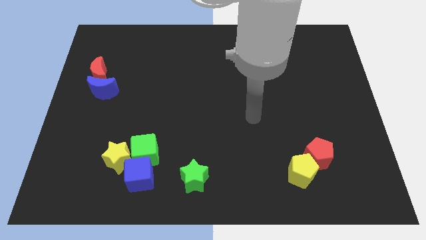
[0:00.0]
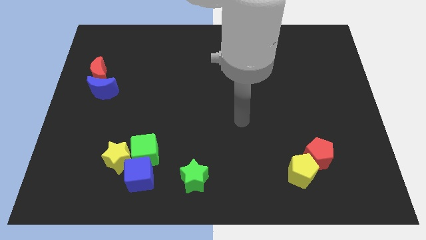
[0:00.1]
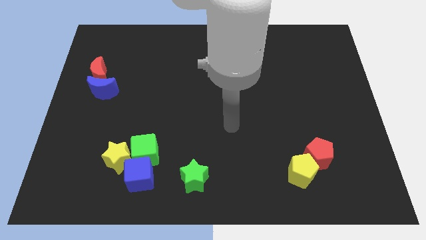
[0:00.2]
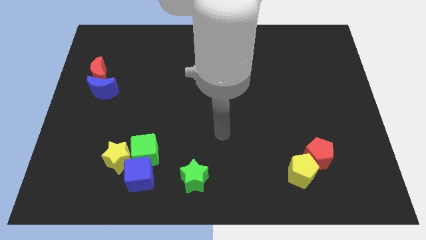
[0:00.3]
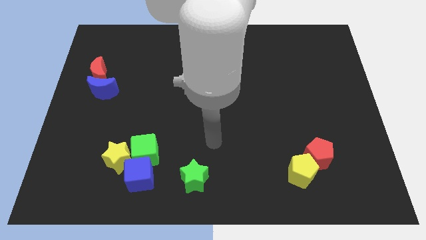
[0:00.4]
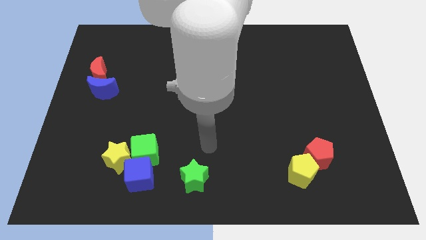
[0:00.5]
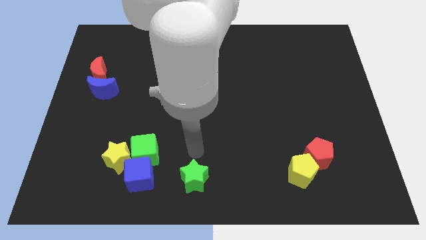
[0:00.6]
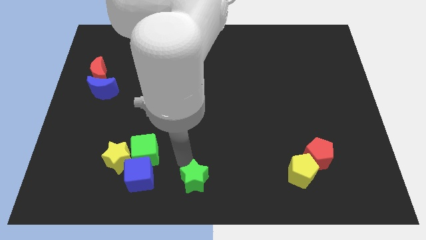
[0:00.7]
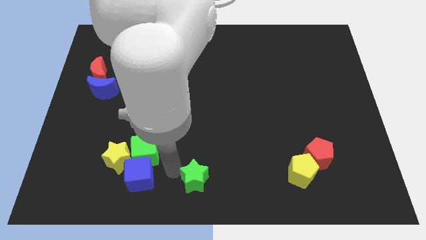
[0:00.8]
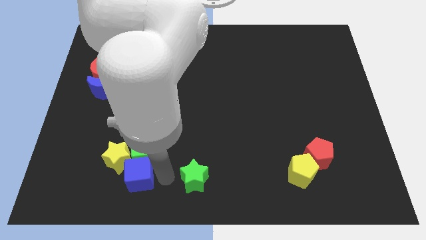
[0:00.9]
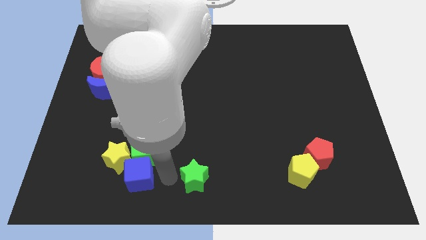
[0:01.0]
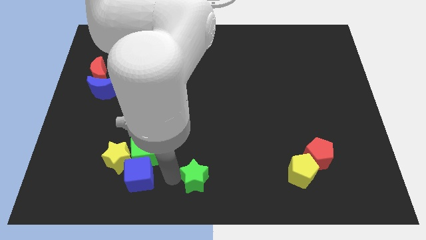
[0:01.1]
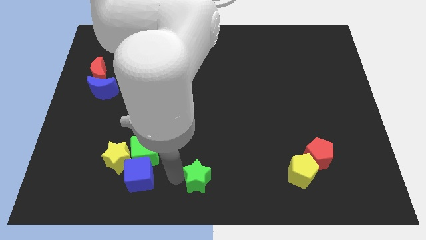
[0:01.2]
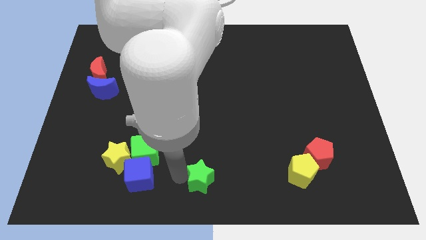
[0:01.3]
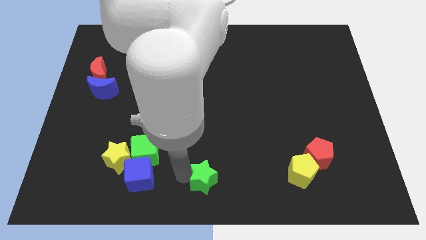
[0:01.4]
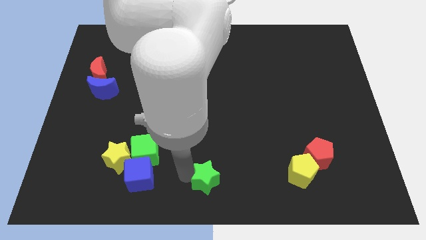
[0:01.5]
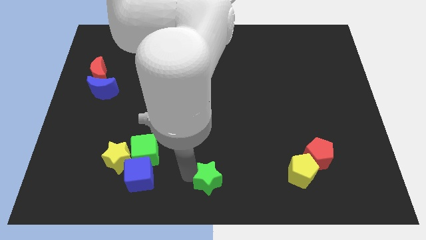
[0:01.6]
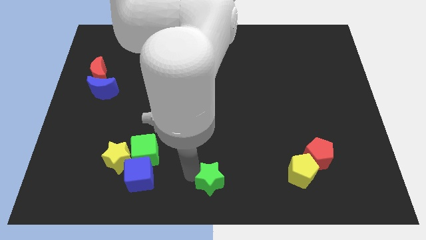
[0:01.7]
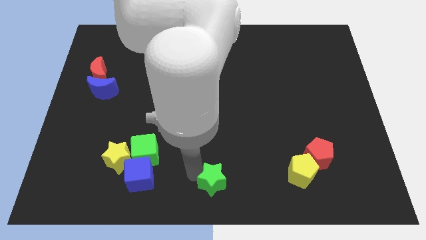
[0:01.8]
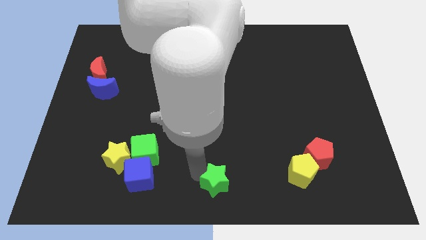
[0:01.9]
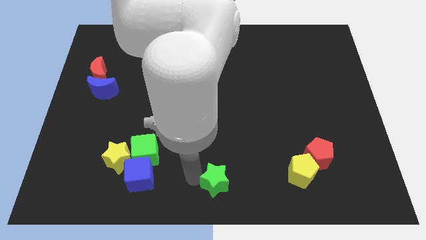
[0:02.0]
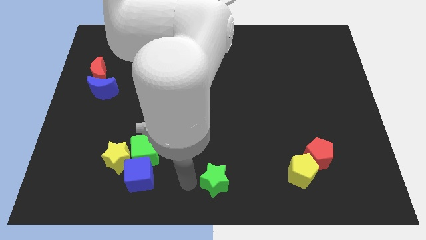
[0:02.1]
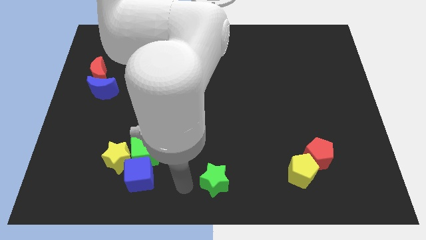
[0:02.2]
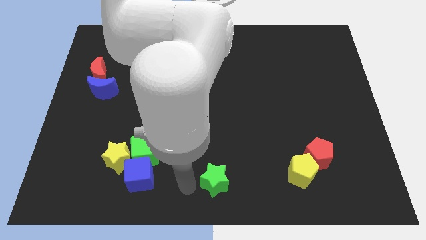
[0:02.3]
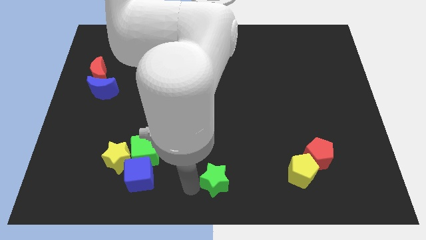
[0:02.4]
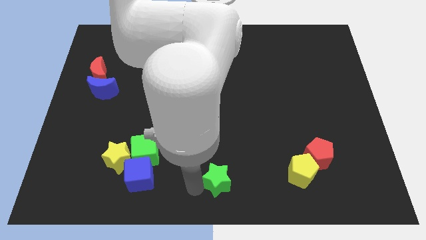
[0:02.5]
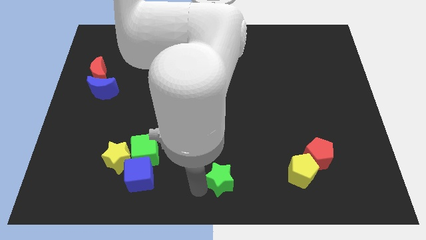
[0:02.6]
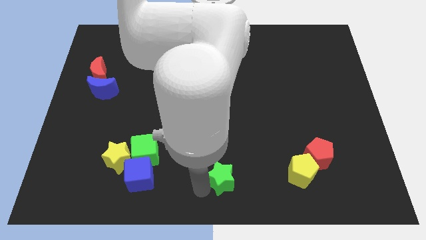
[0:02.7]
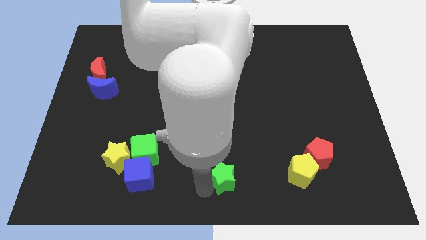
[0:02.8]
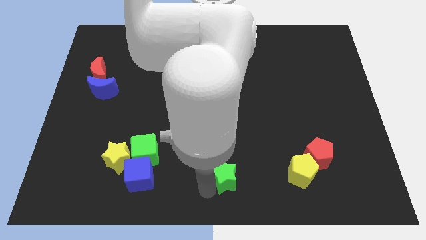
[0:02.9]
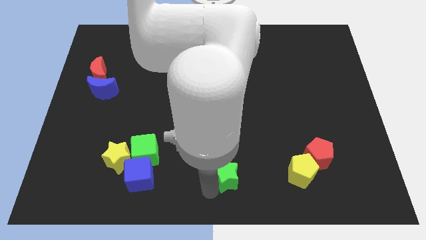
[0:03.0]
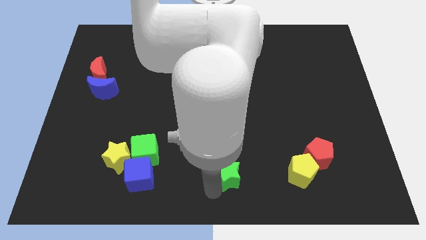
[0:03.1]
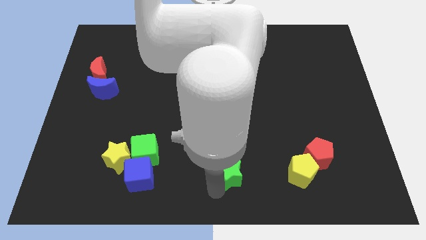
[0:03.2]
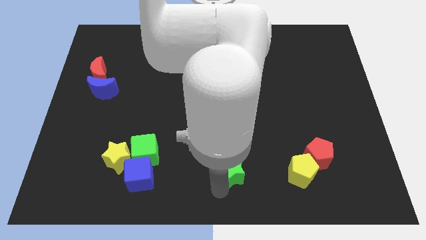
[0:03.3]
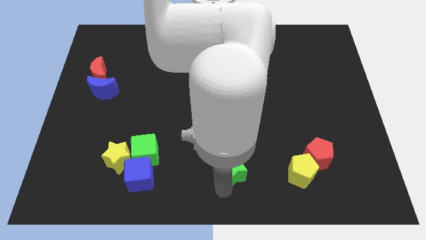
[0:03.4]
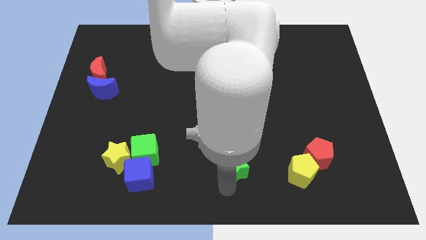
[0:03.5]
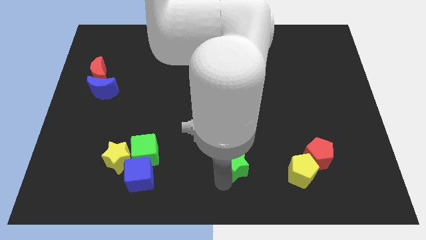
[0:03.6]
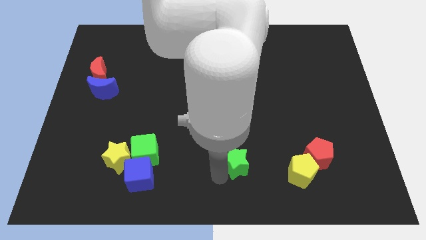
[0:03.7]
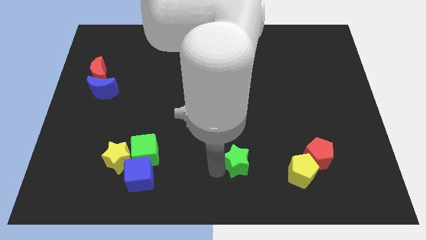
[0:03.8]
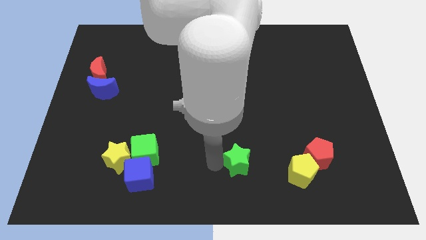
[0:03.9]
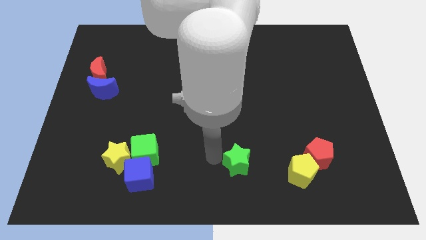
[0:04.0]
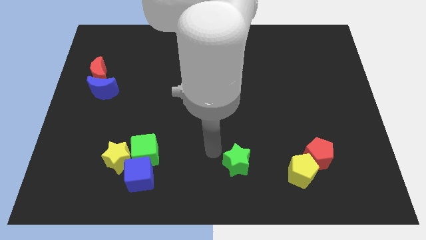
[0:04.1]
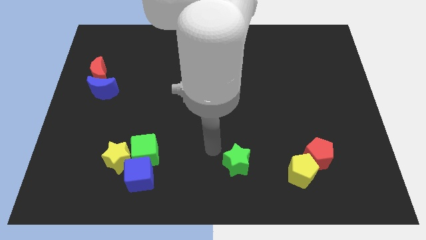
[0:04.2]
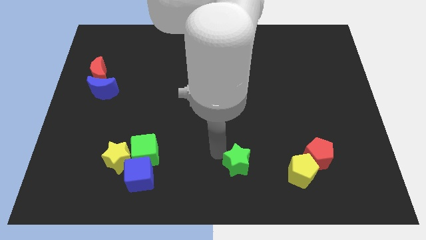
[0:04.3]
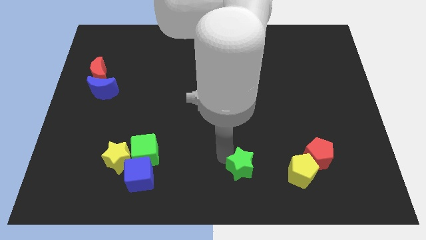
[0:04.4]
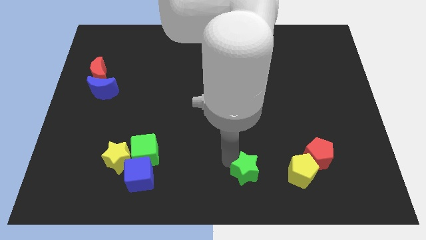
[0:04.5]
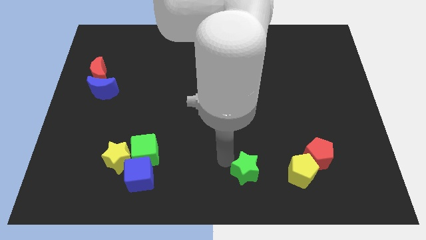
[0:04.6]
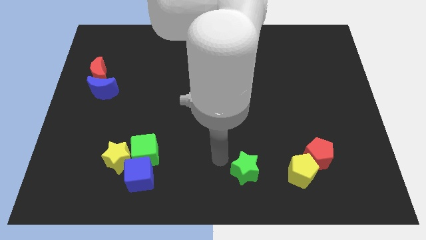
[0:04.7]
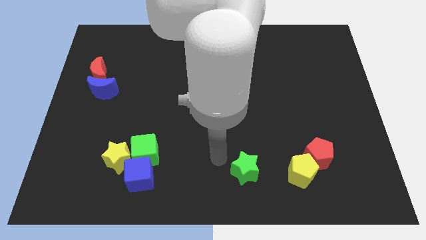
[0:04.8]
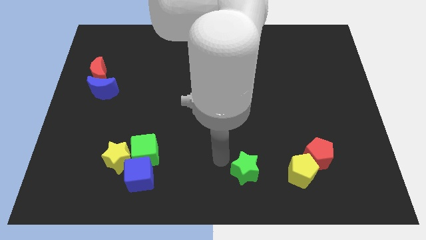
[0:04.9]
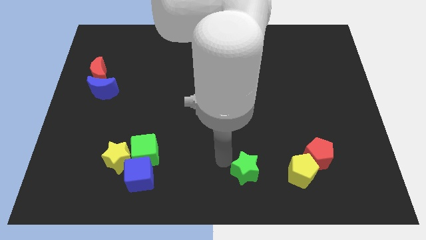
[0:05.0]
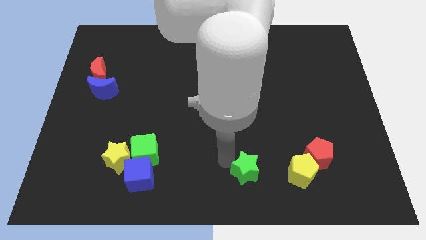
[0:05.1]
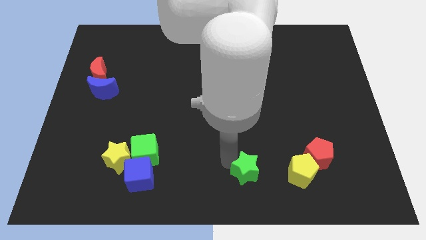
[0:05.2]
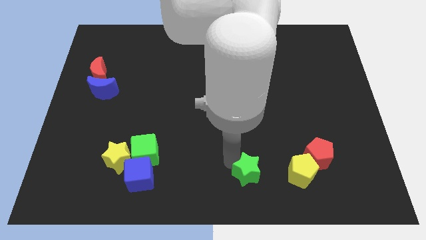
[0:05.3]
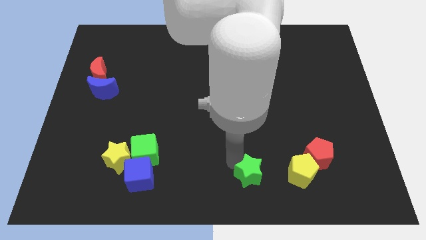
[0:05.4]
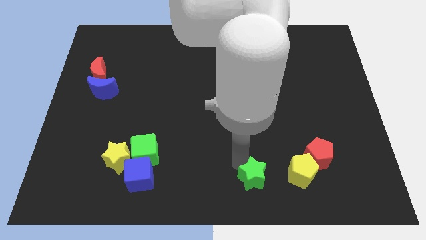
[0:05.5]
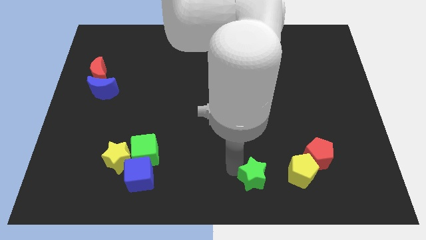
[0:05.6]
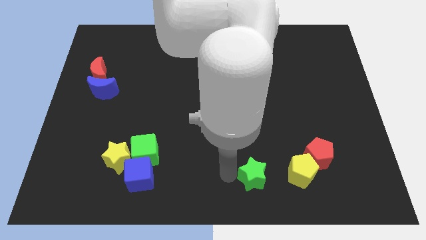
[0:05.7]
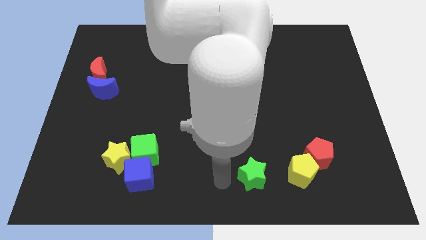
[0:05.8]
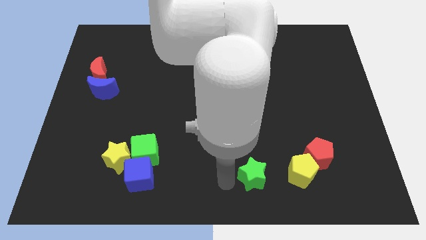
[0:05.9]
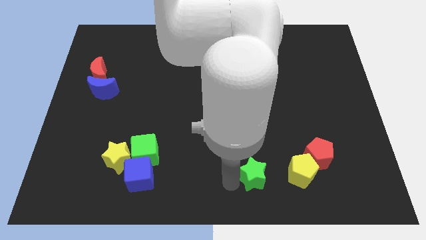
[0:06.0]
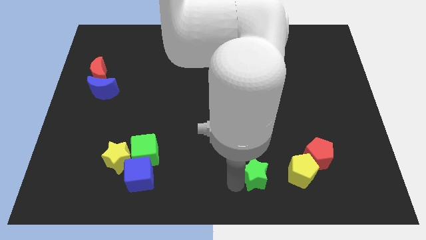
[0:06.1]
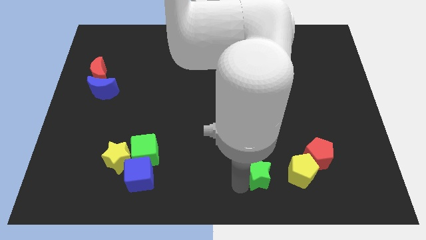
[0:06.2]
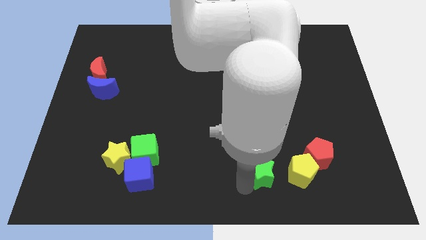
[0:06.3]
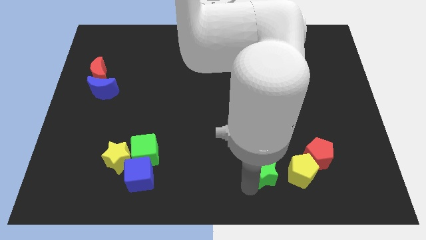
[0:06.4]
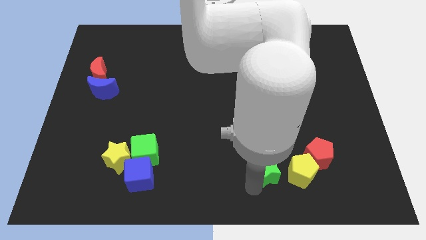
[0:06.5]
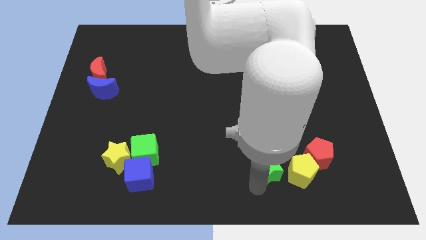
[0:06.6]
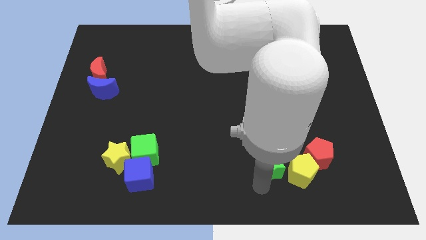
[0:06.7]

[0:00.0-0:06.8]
put the green star close to the yellow pentagon

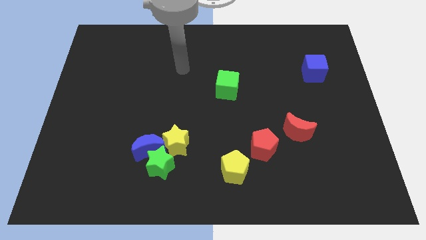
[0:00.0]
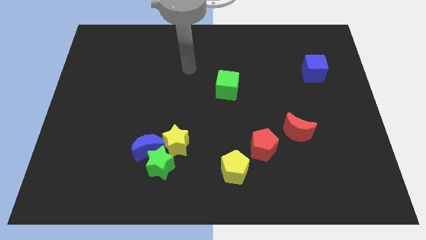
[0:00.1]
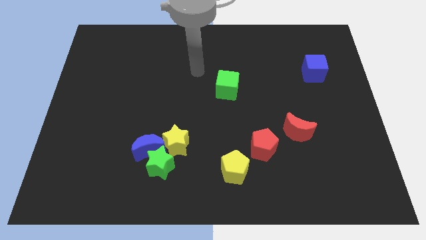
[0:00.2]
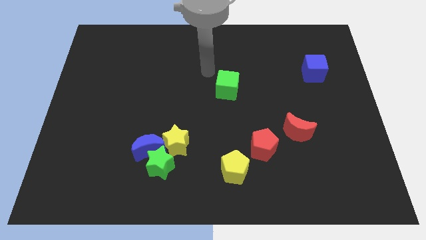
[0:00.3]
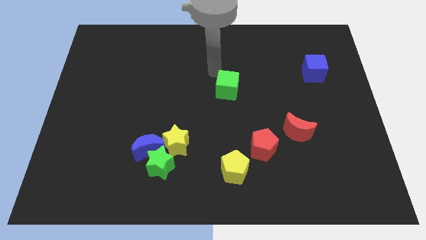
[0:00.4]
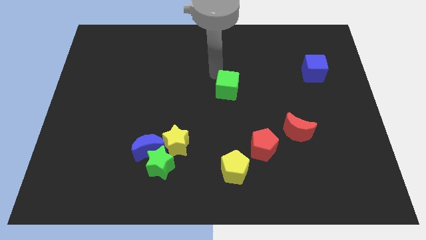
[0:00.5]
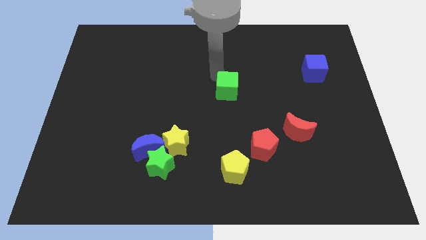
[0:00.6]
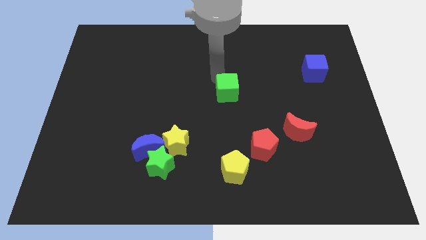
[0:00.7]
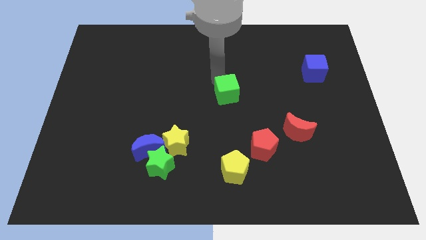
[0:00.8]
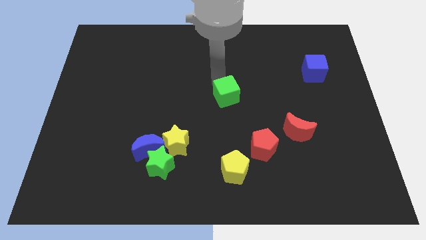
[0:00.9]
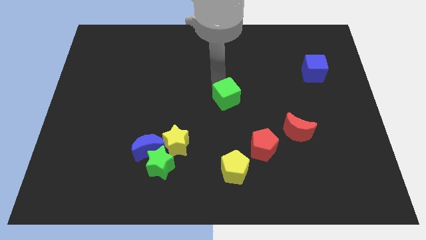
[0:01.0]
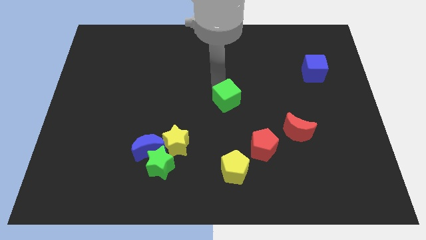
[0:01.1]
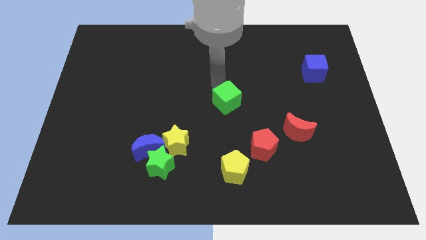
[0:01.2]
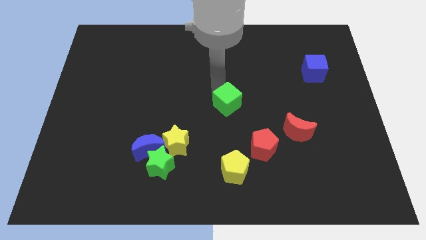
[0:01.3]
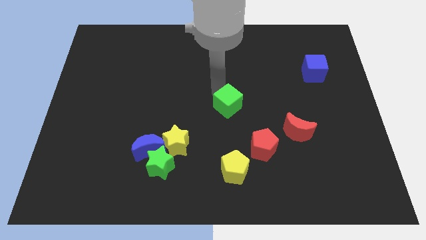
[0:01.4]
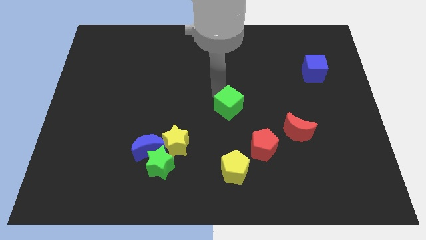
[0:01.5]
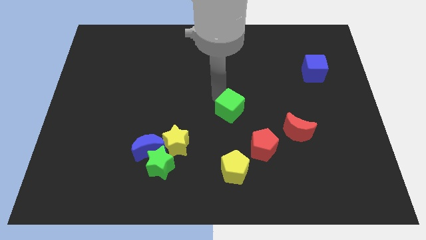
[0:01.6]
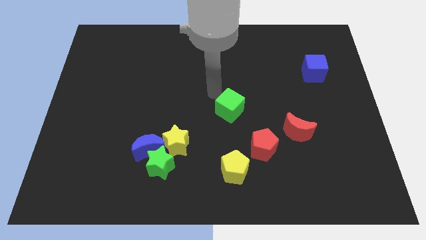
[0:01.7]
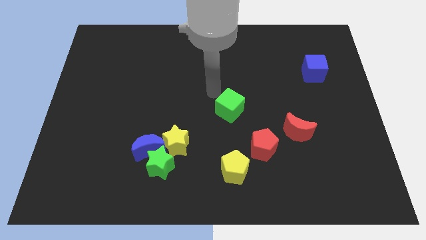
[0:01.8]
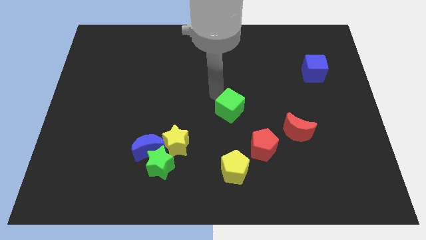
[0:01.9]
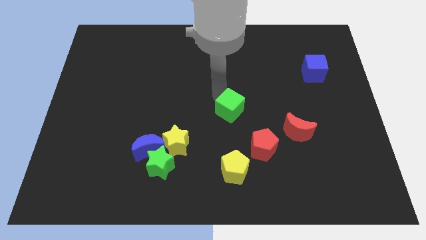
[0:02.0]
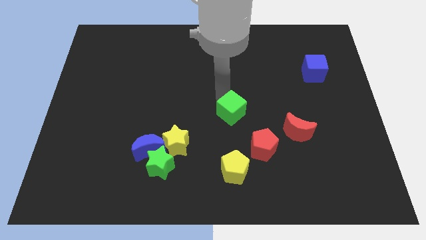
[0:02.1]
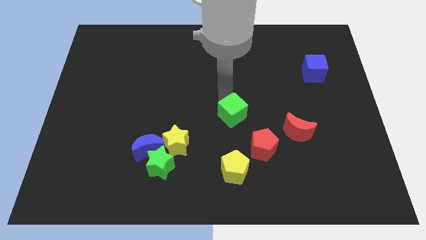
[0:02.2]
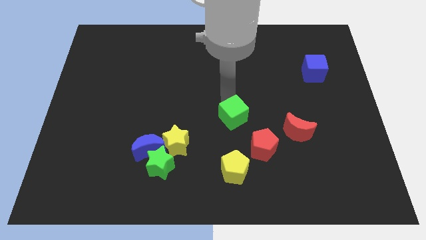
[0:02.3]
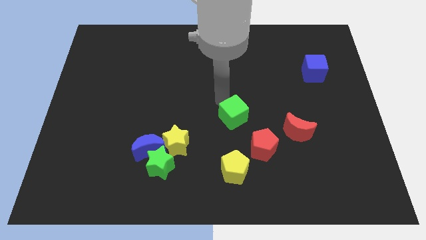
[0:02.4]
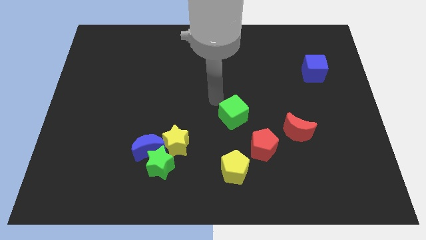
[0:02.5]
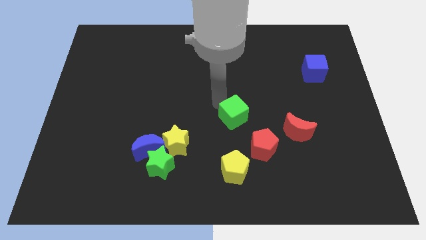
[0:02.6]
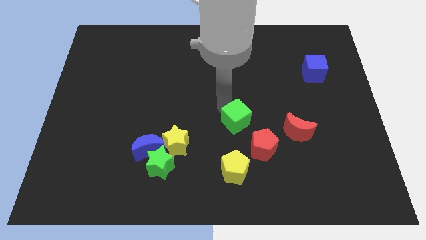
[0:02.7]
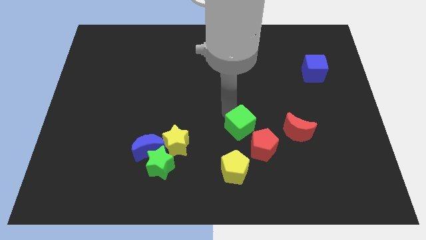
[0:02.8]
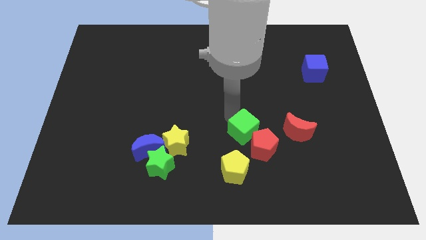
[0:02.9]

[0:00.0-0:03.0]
put the green cube next to the red pentagon
